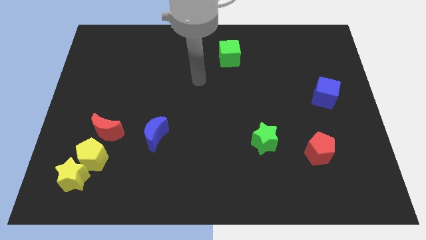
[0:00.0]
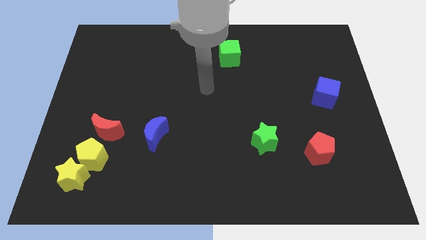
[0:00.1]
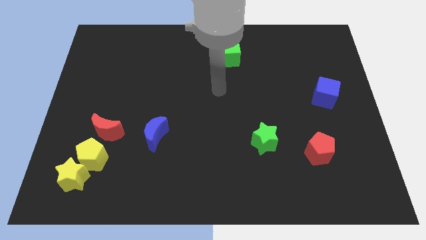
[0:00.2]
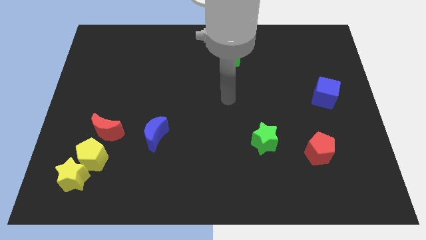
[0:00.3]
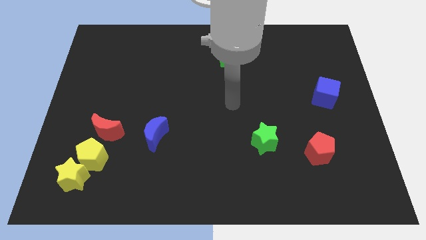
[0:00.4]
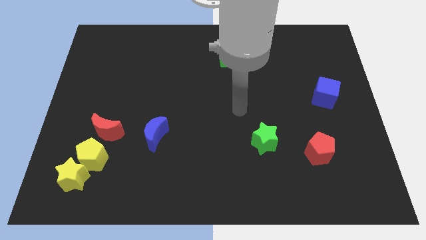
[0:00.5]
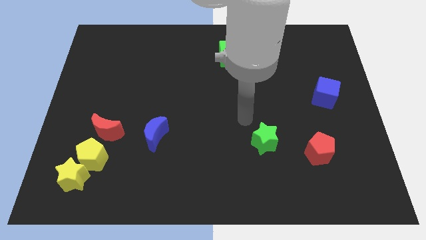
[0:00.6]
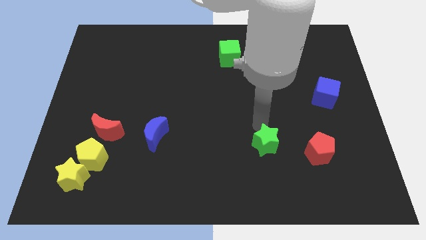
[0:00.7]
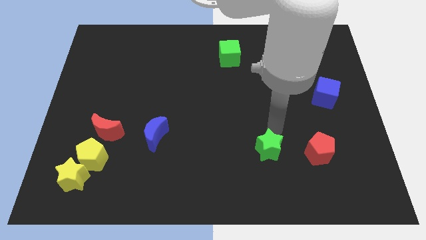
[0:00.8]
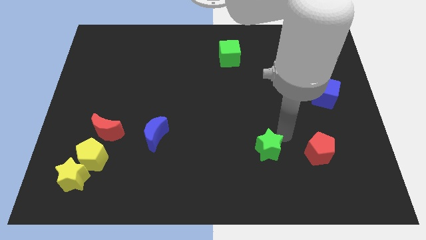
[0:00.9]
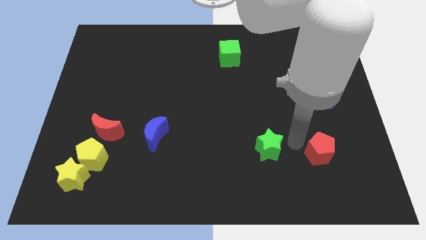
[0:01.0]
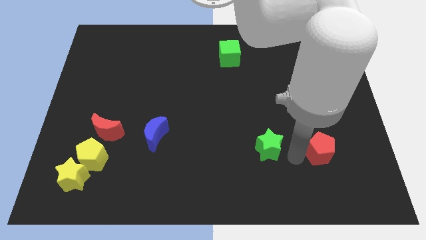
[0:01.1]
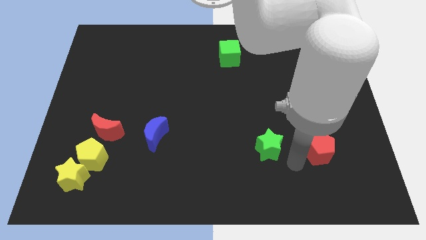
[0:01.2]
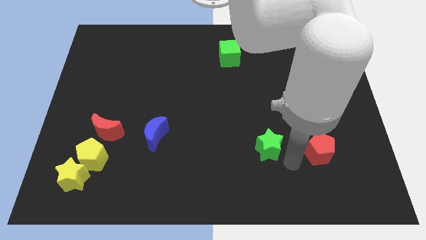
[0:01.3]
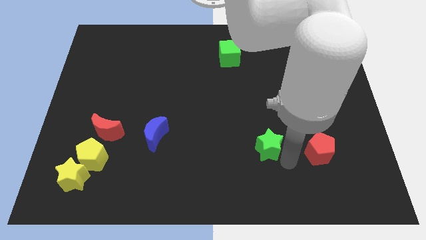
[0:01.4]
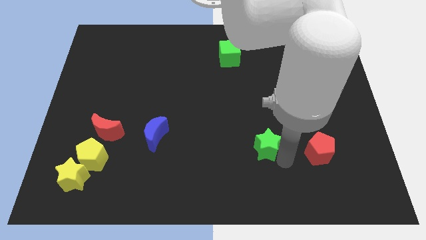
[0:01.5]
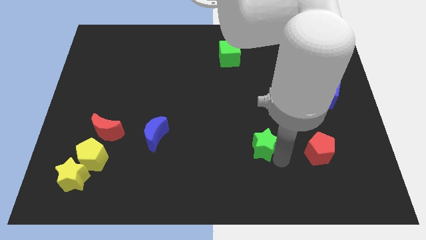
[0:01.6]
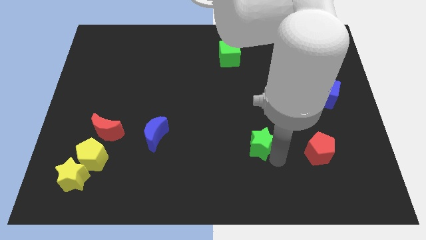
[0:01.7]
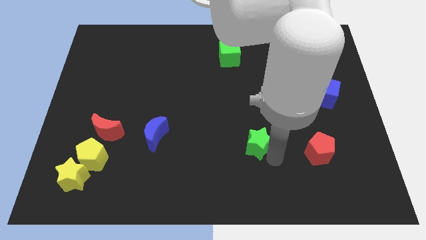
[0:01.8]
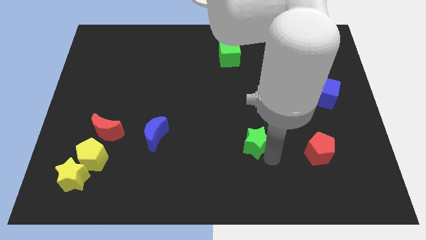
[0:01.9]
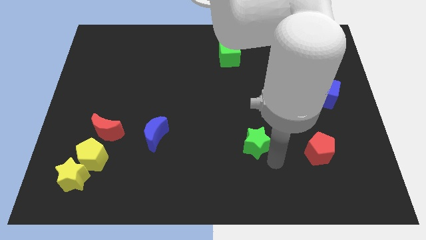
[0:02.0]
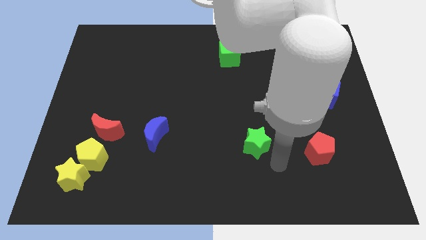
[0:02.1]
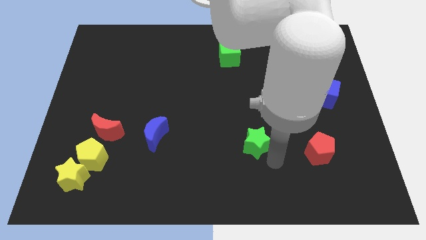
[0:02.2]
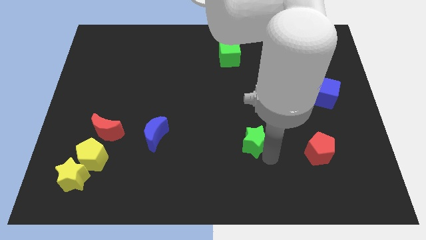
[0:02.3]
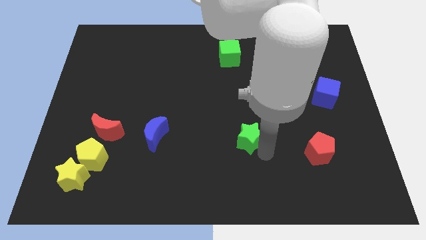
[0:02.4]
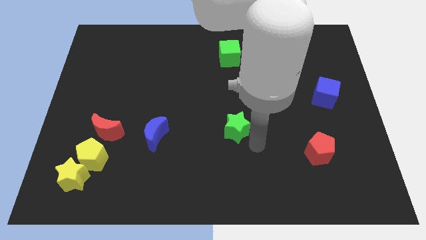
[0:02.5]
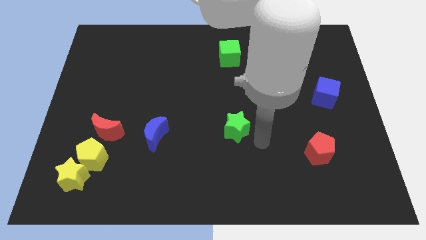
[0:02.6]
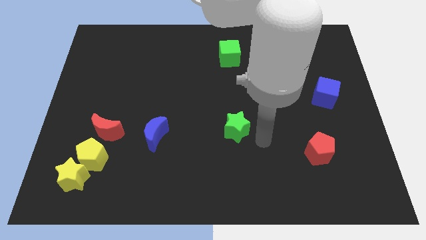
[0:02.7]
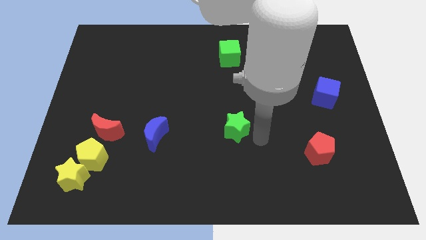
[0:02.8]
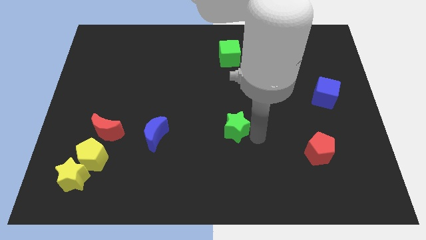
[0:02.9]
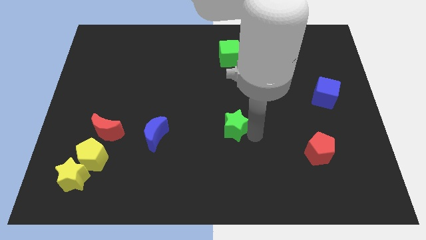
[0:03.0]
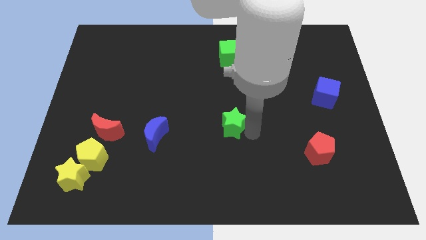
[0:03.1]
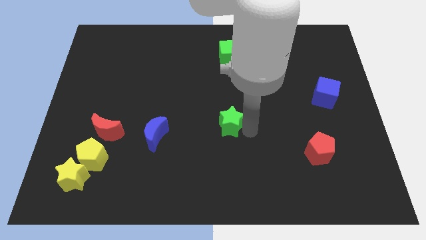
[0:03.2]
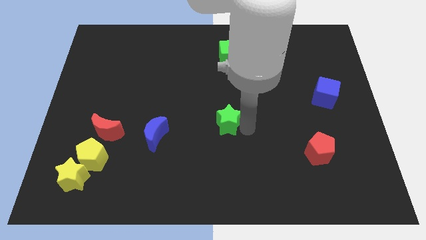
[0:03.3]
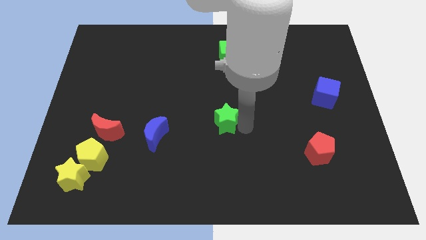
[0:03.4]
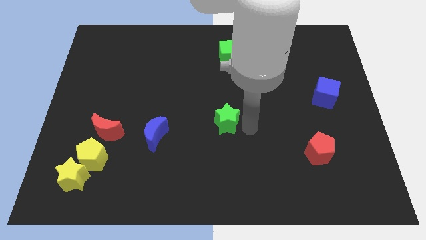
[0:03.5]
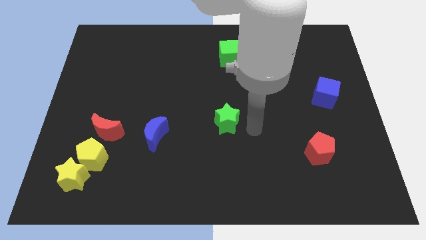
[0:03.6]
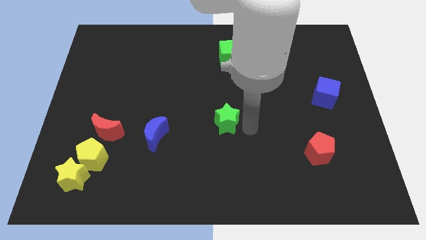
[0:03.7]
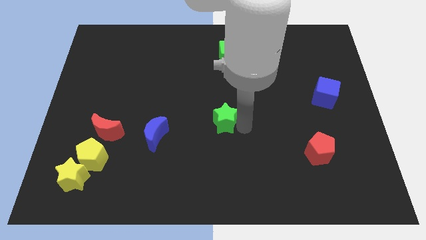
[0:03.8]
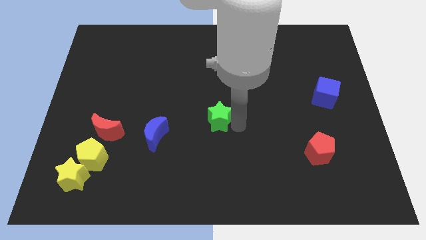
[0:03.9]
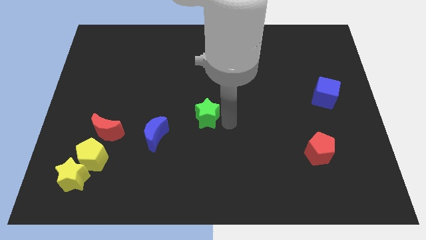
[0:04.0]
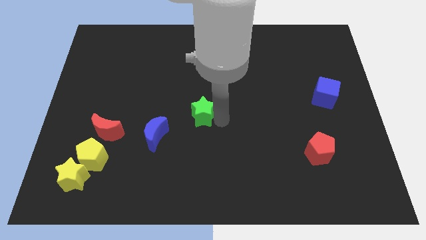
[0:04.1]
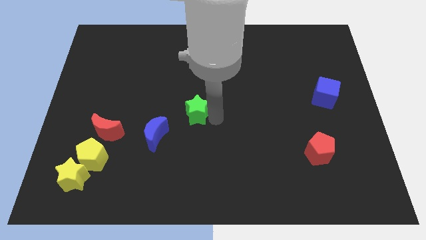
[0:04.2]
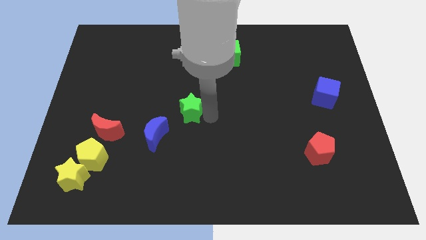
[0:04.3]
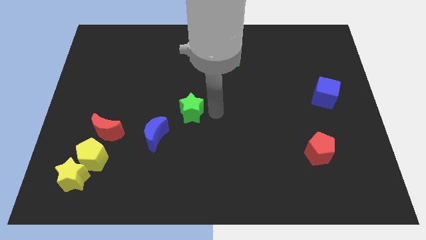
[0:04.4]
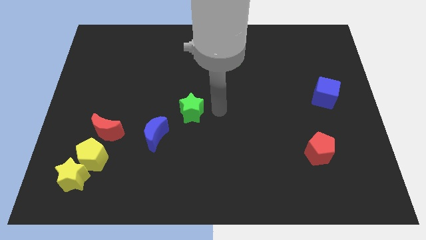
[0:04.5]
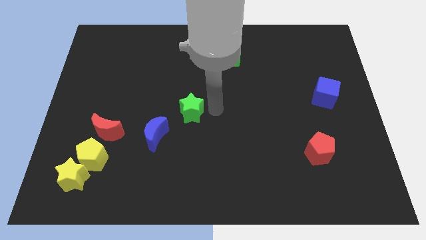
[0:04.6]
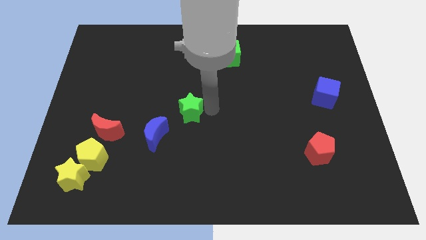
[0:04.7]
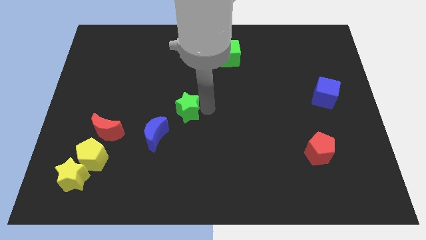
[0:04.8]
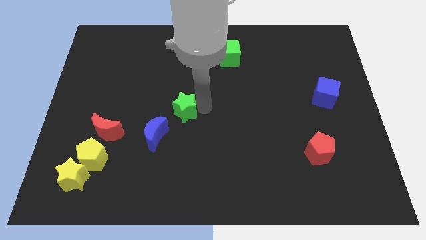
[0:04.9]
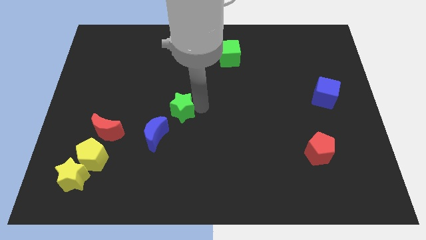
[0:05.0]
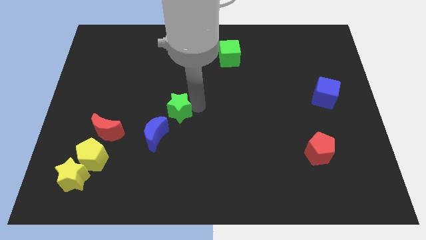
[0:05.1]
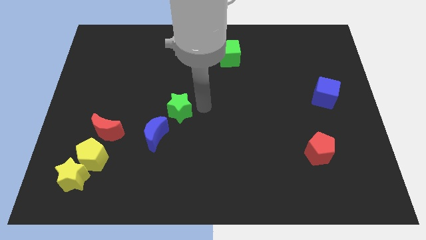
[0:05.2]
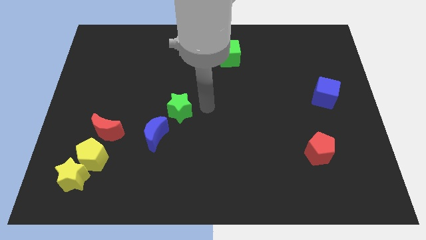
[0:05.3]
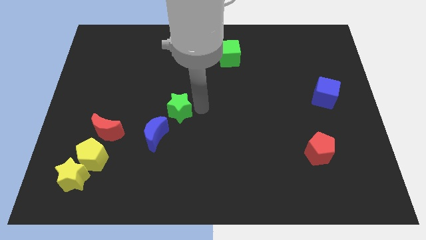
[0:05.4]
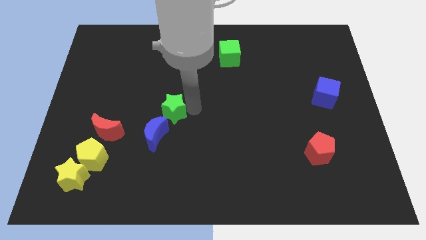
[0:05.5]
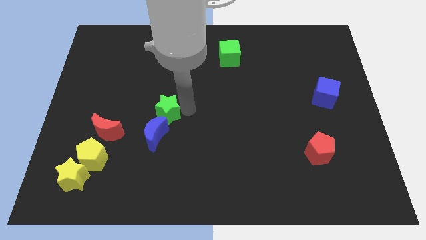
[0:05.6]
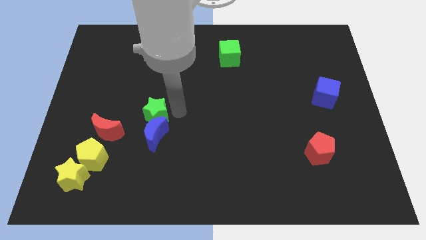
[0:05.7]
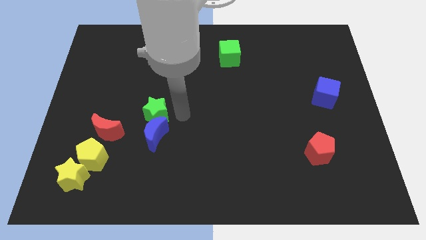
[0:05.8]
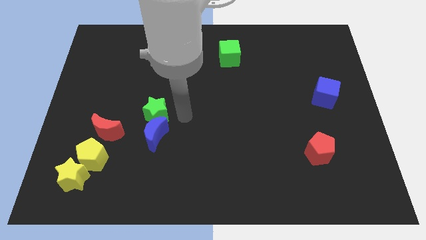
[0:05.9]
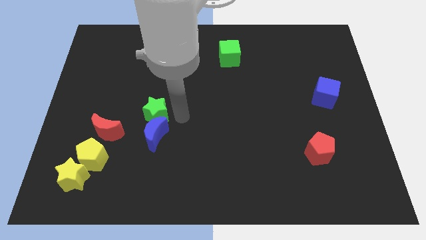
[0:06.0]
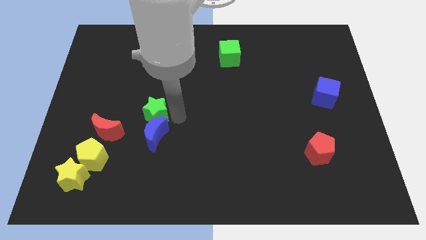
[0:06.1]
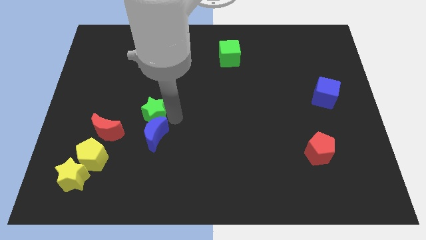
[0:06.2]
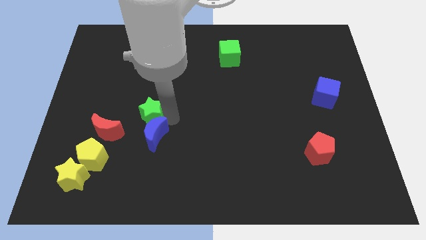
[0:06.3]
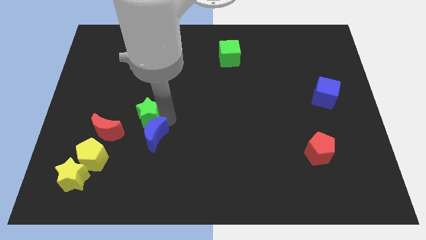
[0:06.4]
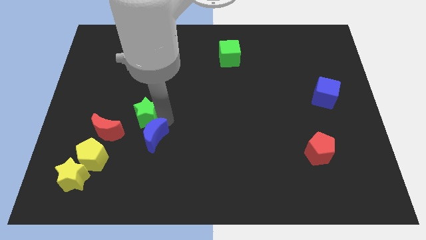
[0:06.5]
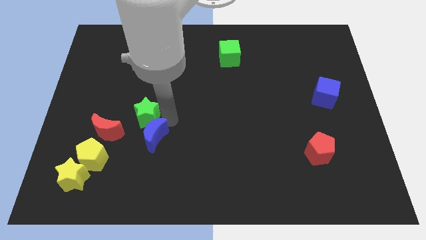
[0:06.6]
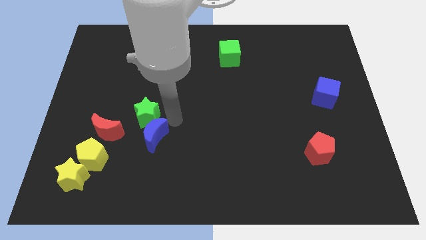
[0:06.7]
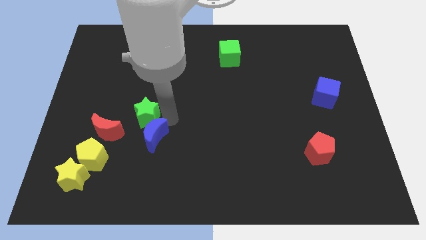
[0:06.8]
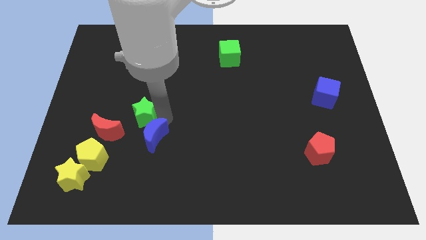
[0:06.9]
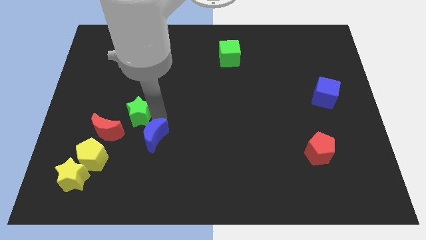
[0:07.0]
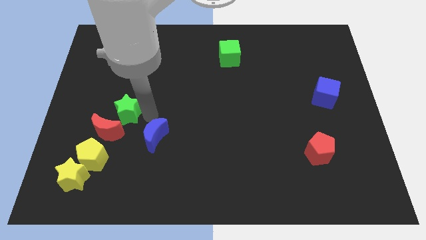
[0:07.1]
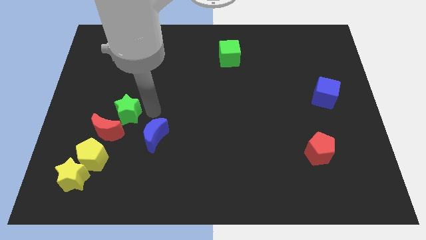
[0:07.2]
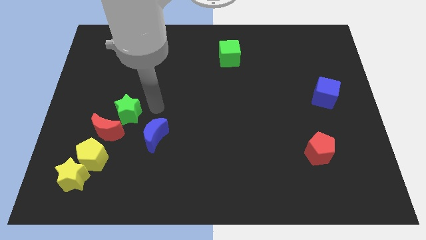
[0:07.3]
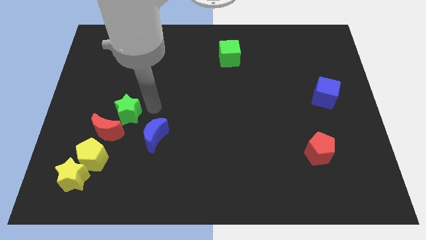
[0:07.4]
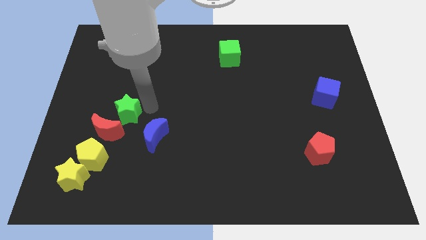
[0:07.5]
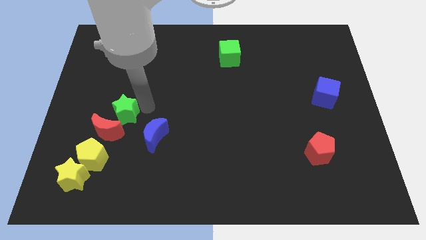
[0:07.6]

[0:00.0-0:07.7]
move the green star to the top side of the yellow pentagon
